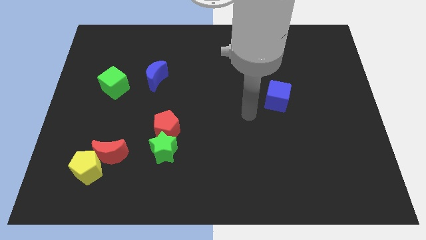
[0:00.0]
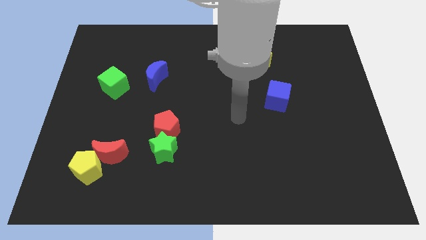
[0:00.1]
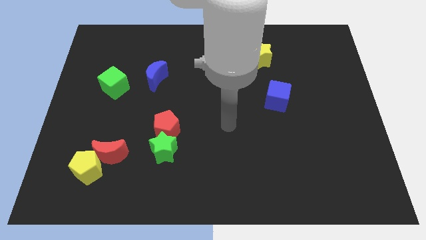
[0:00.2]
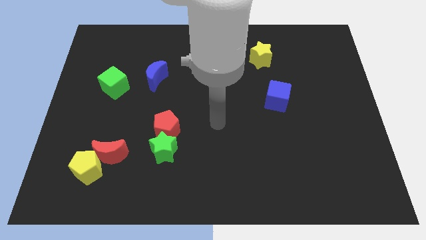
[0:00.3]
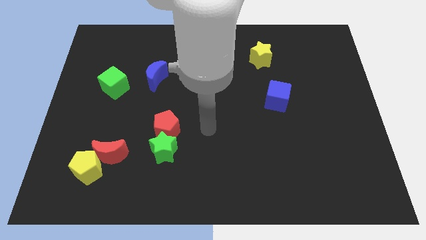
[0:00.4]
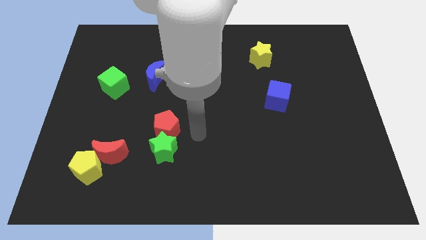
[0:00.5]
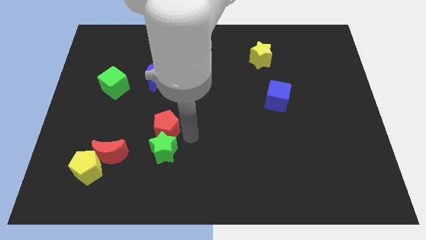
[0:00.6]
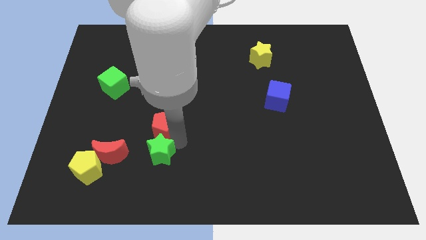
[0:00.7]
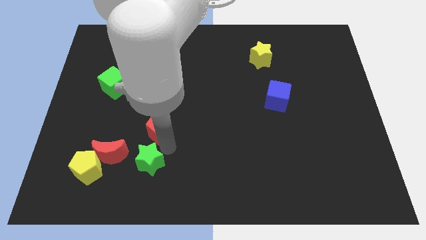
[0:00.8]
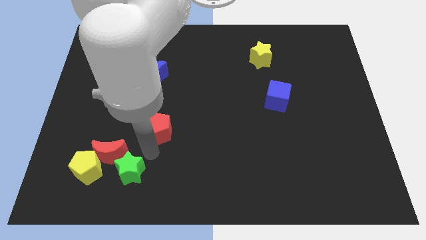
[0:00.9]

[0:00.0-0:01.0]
separate the red pentagon from the green star

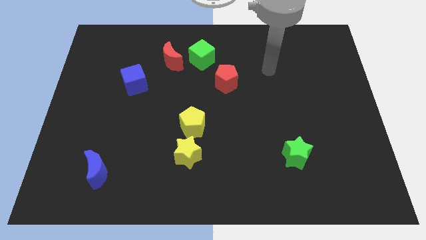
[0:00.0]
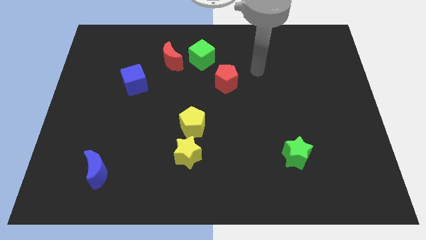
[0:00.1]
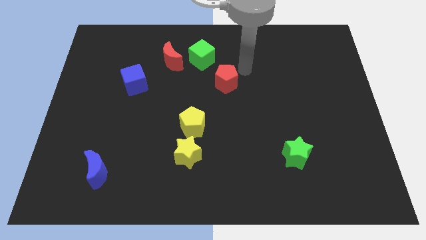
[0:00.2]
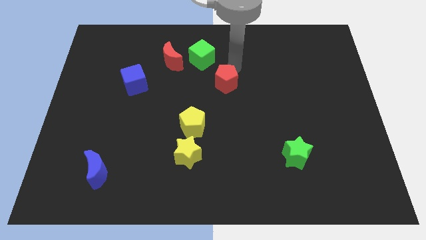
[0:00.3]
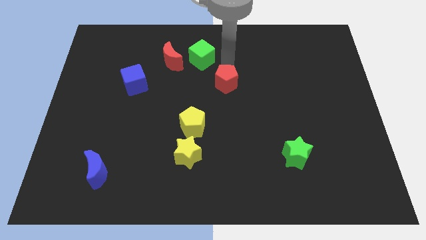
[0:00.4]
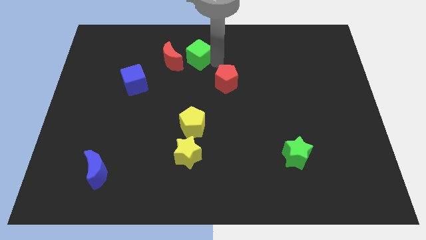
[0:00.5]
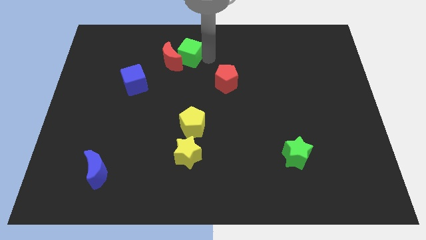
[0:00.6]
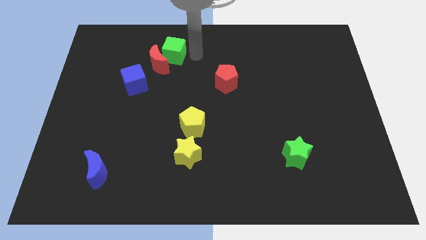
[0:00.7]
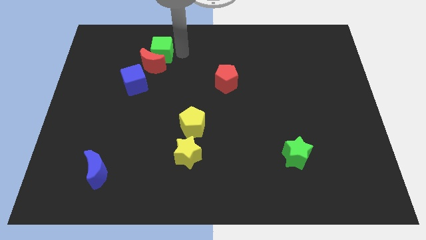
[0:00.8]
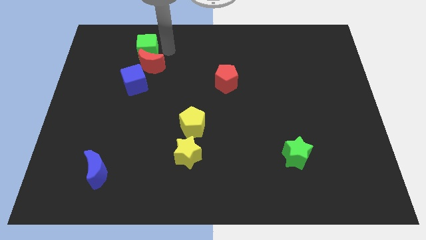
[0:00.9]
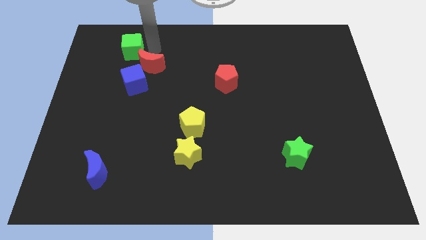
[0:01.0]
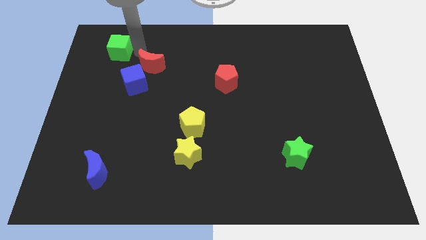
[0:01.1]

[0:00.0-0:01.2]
move the red moon away from the green cube

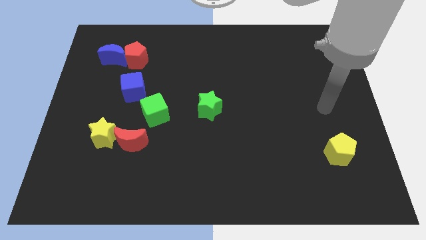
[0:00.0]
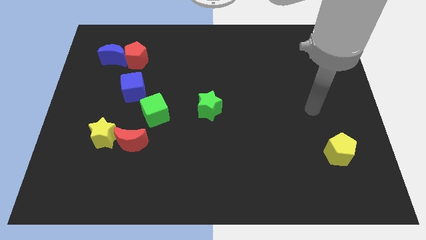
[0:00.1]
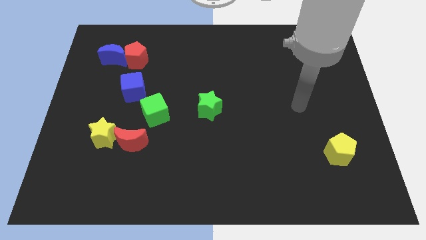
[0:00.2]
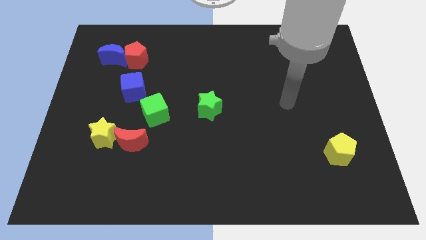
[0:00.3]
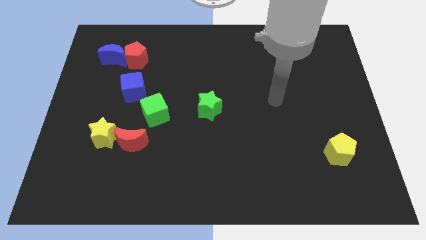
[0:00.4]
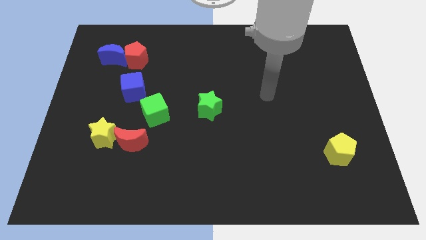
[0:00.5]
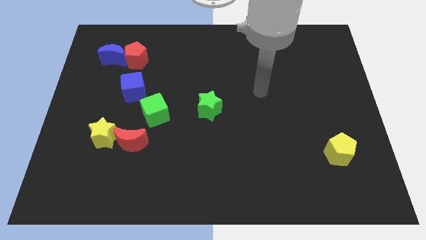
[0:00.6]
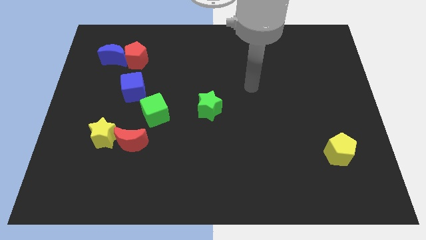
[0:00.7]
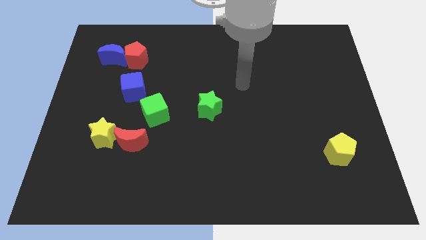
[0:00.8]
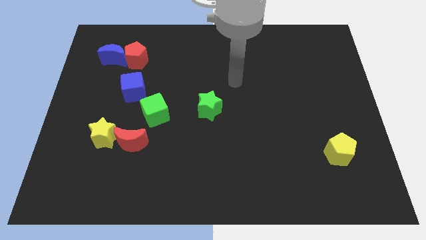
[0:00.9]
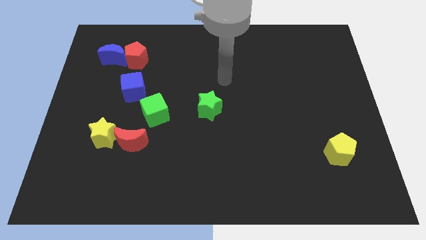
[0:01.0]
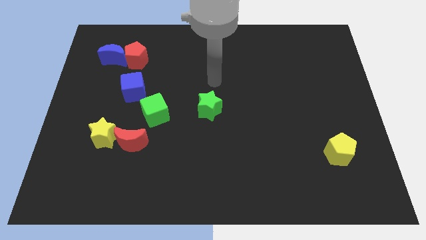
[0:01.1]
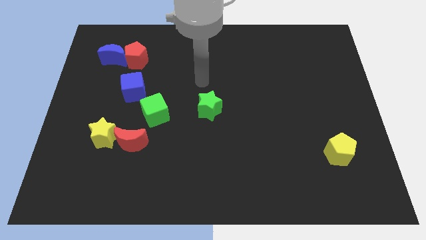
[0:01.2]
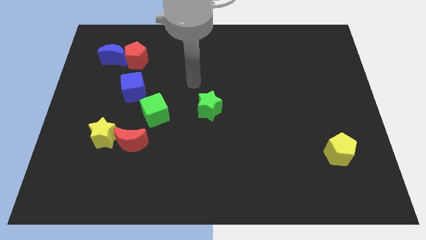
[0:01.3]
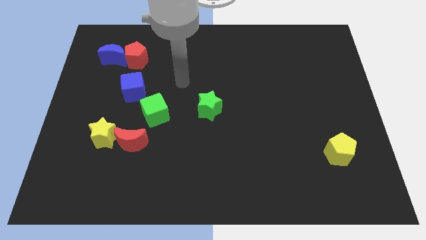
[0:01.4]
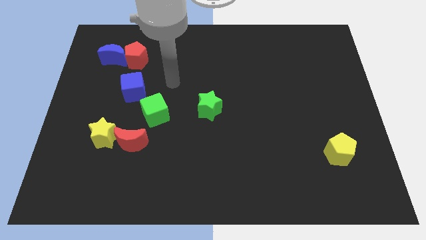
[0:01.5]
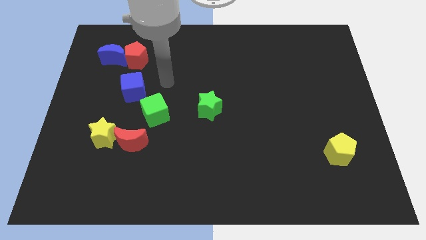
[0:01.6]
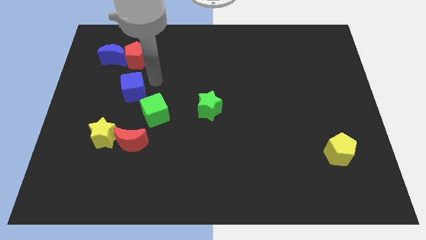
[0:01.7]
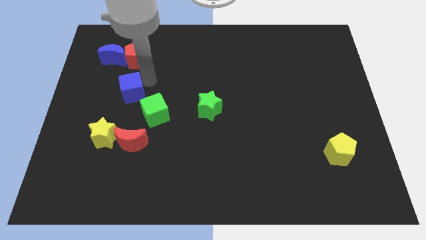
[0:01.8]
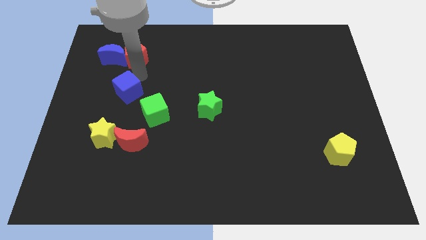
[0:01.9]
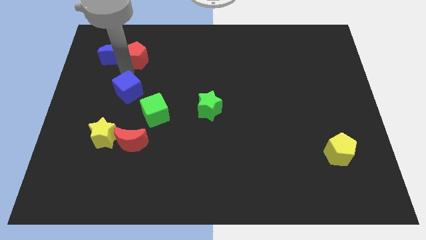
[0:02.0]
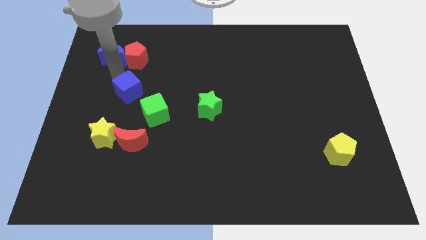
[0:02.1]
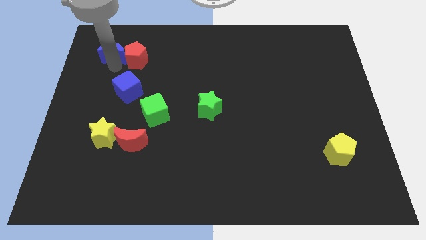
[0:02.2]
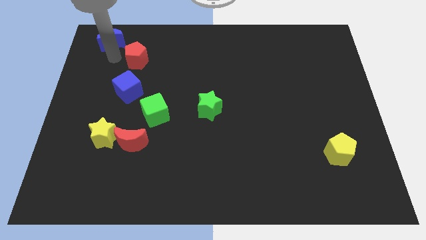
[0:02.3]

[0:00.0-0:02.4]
move the red pentagon away from the blue moon

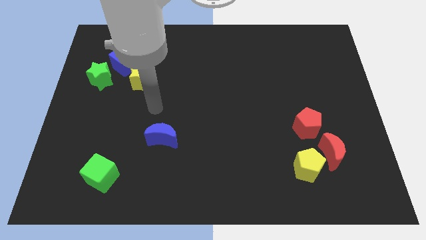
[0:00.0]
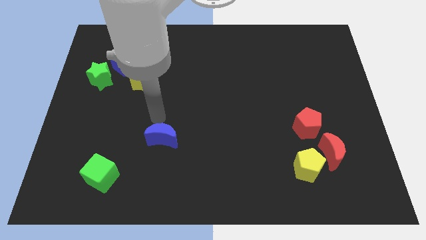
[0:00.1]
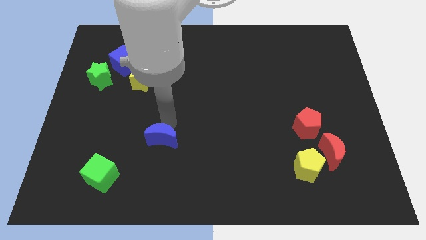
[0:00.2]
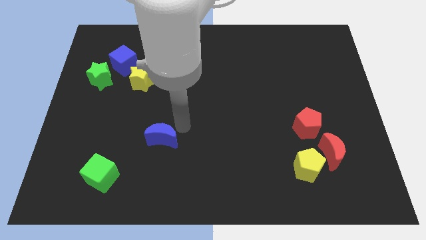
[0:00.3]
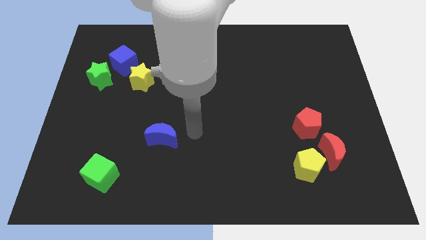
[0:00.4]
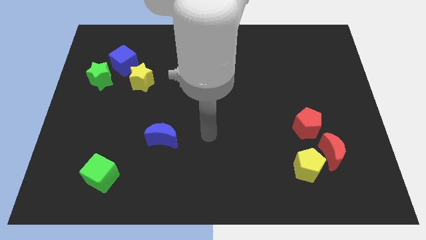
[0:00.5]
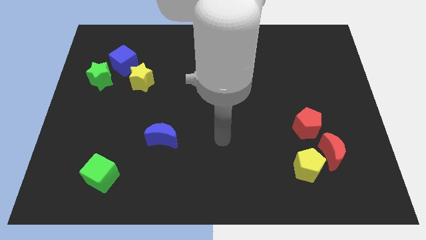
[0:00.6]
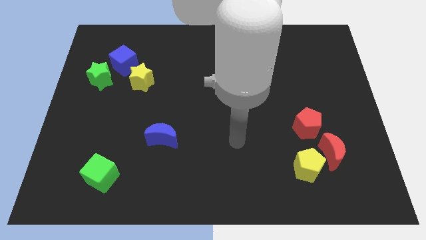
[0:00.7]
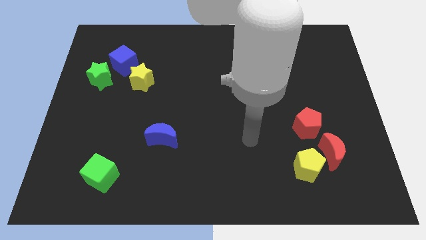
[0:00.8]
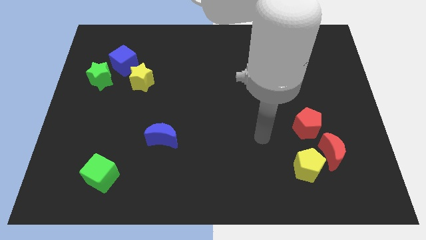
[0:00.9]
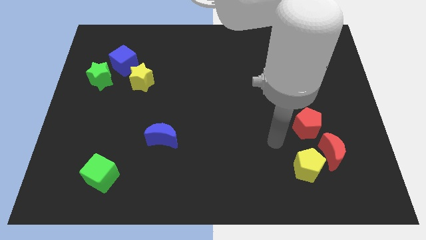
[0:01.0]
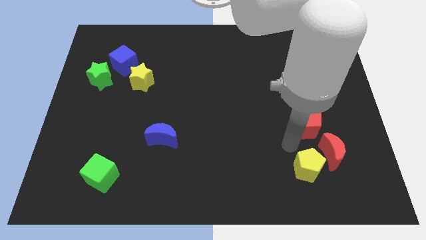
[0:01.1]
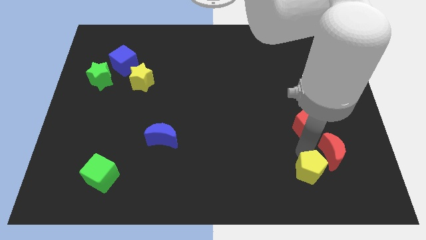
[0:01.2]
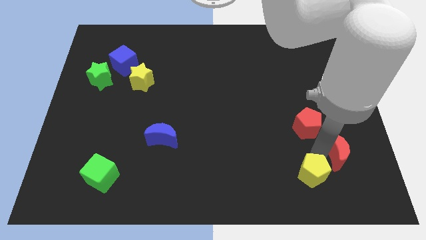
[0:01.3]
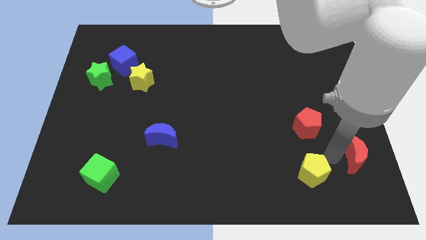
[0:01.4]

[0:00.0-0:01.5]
separate the yellow pentagon from the red moon

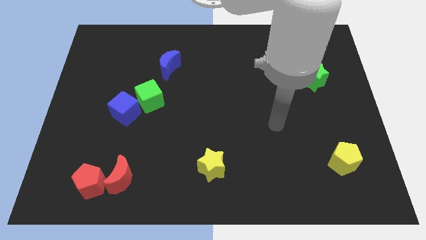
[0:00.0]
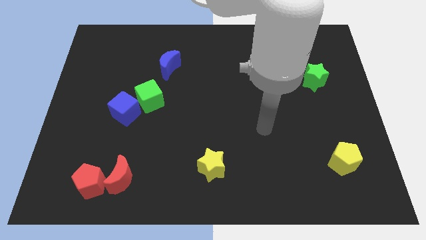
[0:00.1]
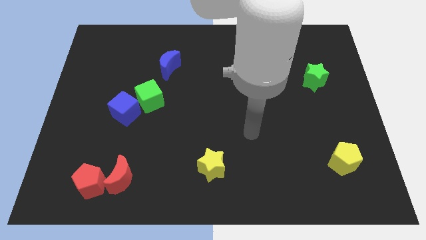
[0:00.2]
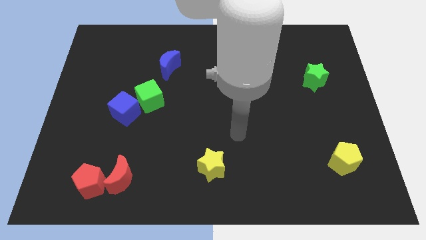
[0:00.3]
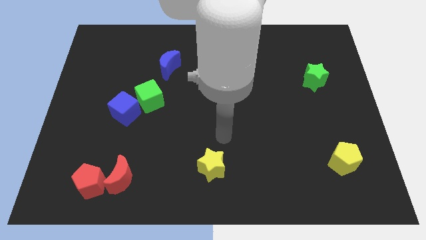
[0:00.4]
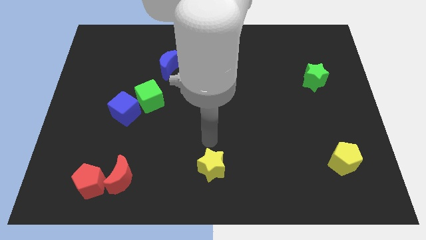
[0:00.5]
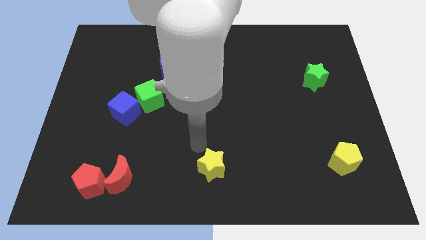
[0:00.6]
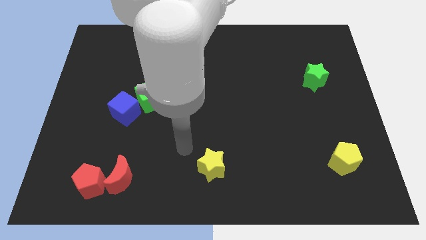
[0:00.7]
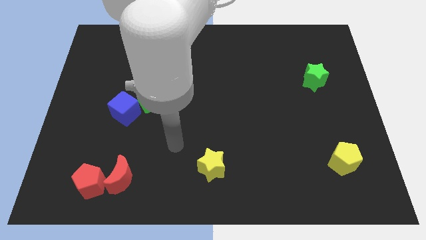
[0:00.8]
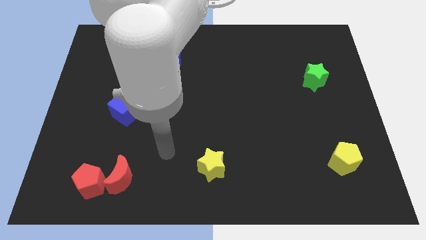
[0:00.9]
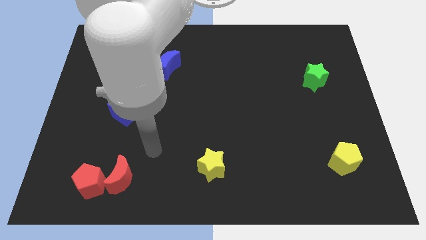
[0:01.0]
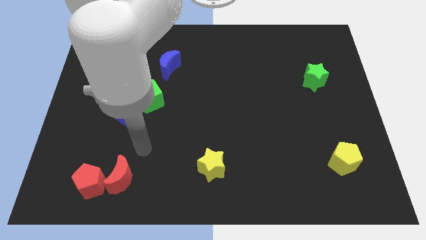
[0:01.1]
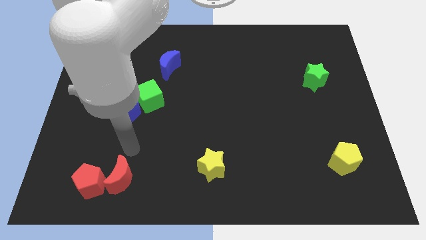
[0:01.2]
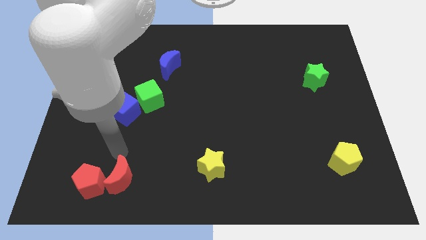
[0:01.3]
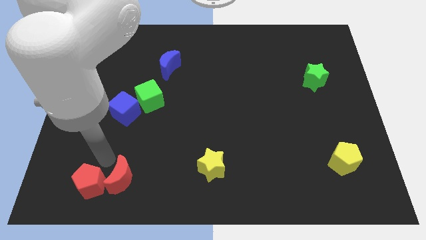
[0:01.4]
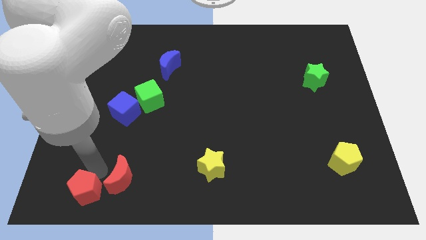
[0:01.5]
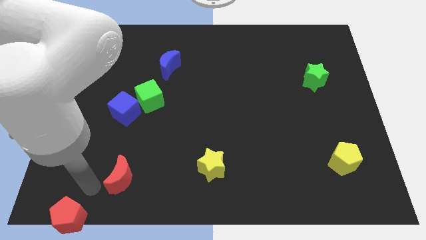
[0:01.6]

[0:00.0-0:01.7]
pull the red moon apart from the red pentagon

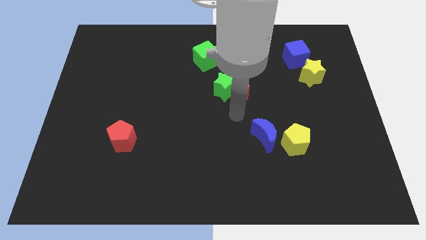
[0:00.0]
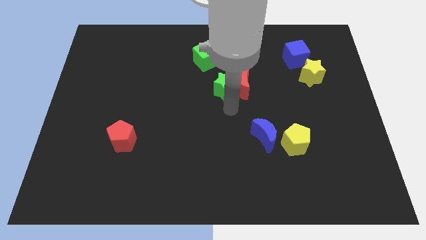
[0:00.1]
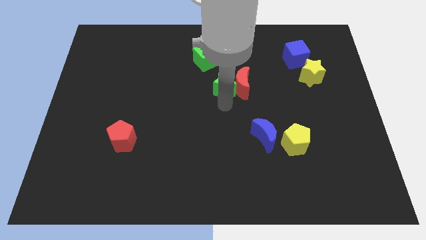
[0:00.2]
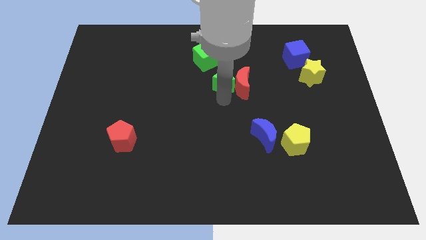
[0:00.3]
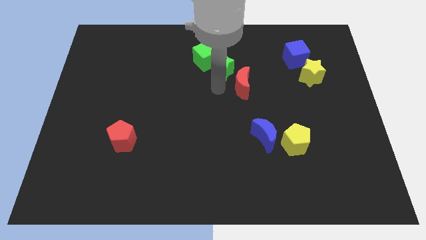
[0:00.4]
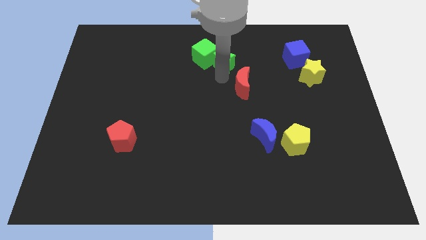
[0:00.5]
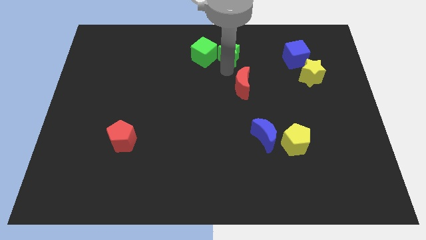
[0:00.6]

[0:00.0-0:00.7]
move the red moon away from the green star

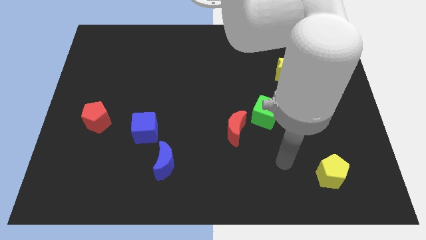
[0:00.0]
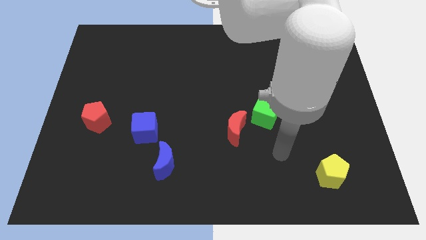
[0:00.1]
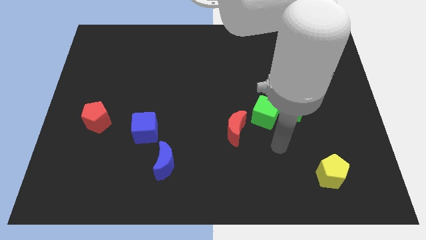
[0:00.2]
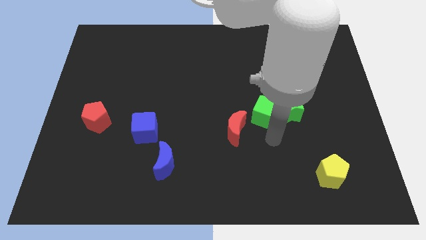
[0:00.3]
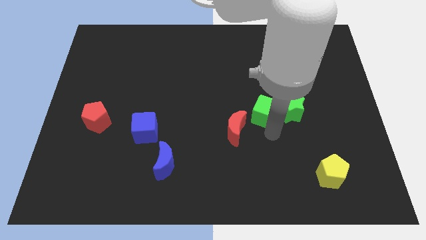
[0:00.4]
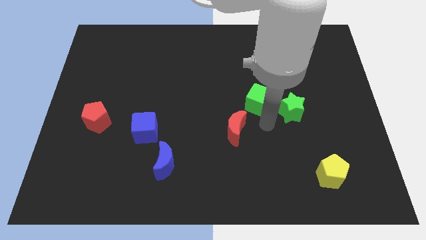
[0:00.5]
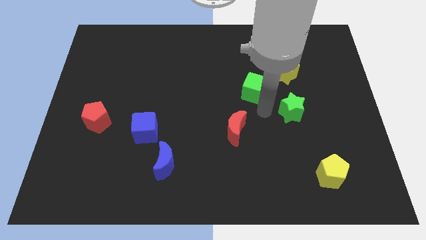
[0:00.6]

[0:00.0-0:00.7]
move the green star away from the green cube
